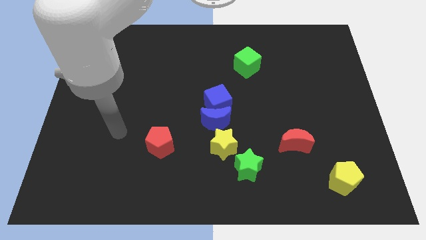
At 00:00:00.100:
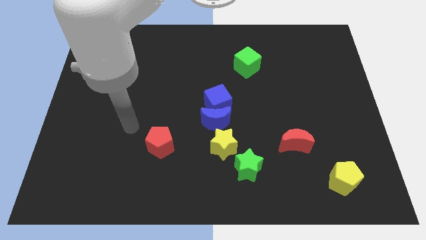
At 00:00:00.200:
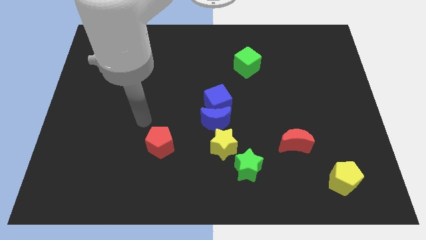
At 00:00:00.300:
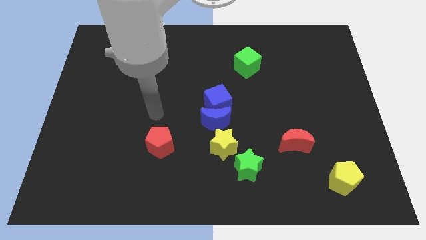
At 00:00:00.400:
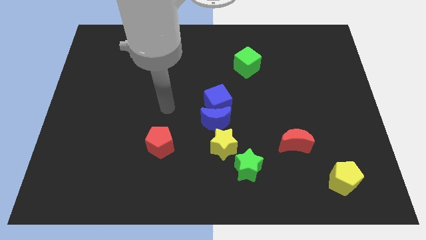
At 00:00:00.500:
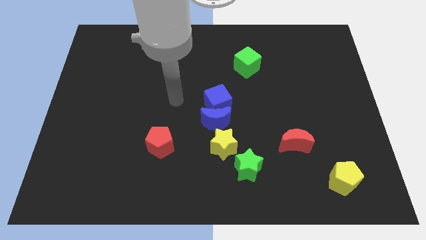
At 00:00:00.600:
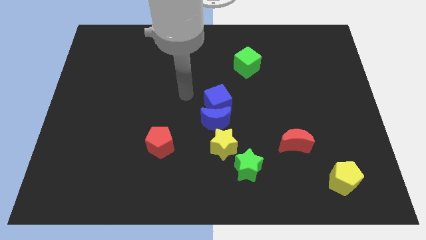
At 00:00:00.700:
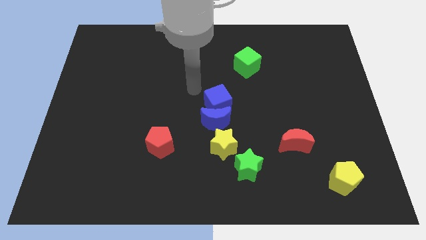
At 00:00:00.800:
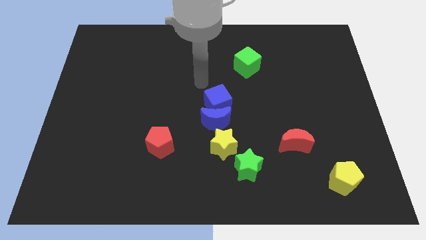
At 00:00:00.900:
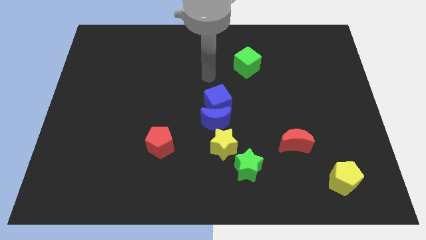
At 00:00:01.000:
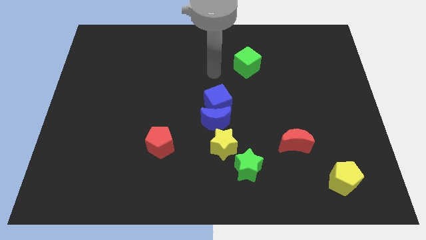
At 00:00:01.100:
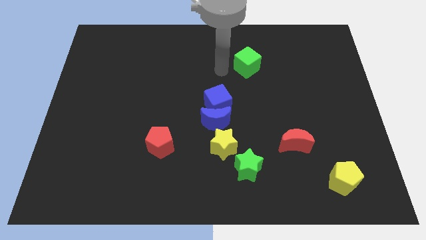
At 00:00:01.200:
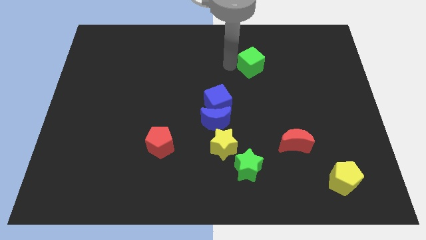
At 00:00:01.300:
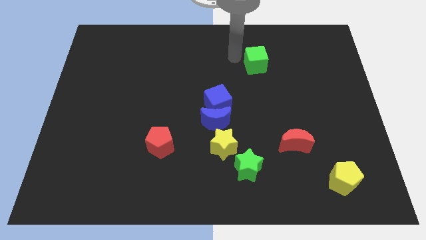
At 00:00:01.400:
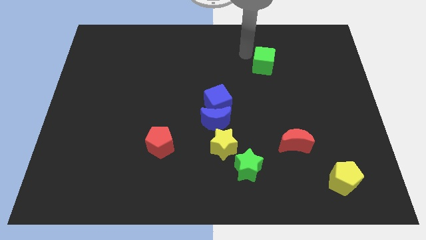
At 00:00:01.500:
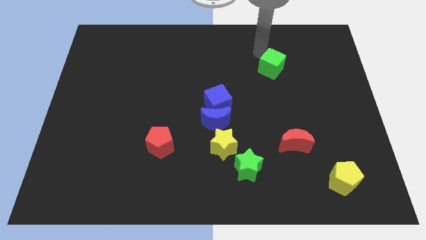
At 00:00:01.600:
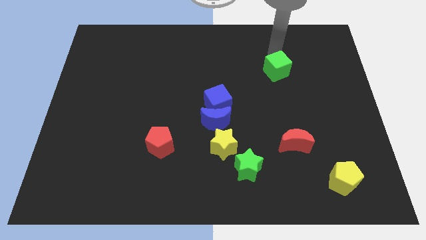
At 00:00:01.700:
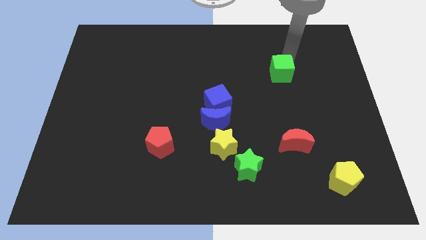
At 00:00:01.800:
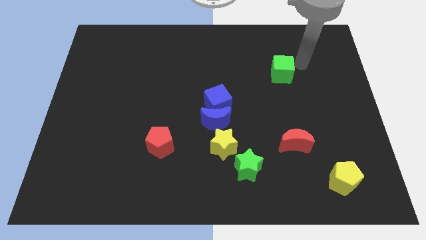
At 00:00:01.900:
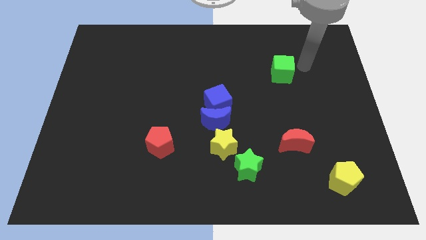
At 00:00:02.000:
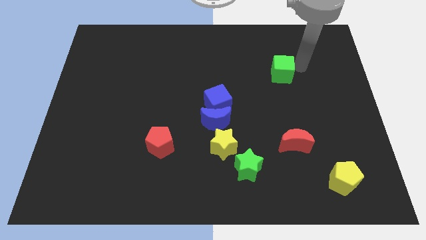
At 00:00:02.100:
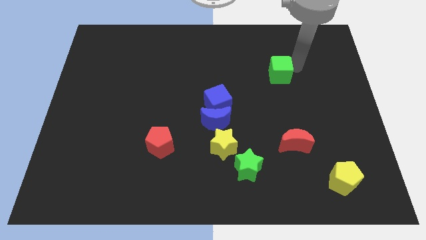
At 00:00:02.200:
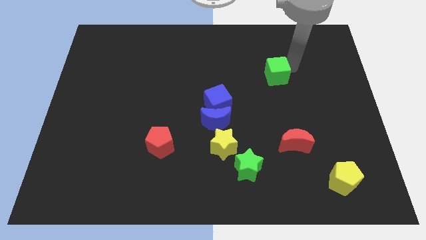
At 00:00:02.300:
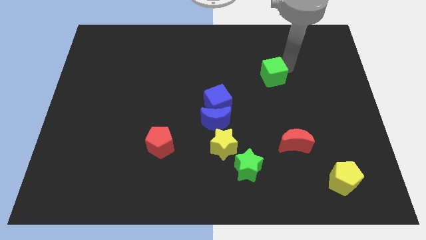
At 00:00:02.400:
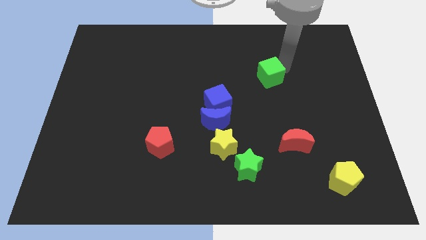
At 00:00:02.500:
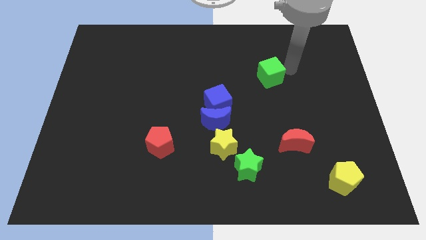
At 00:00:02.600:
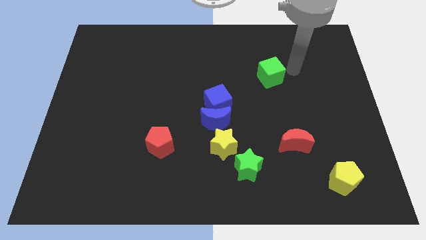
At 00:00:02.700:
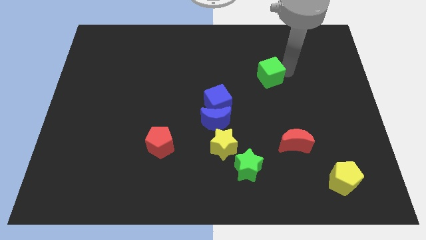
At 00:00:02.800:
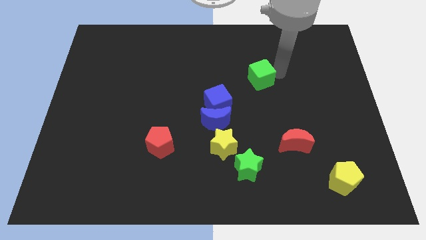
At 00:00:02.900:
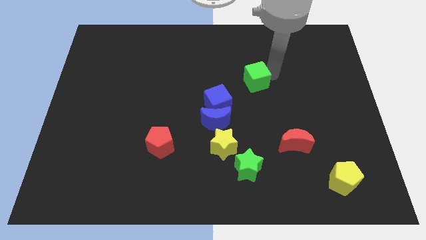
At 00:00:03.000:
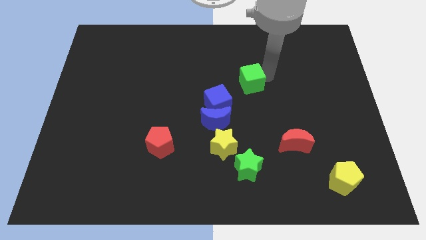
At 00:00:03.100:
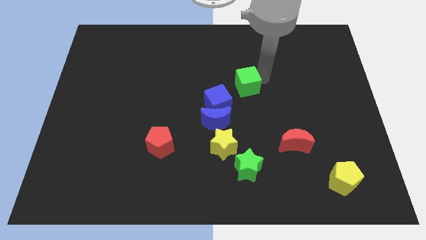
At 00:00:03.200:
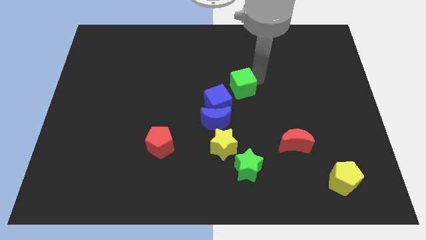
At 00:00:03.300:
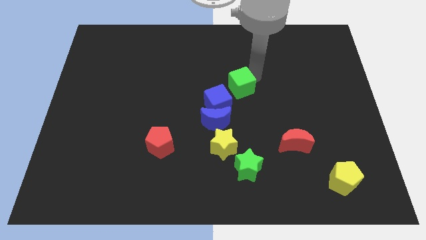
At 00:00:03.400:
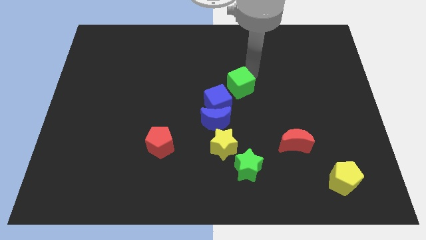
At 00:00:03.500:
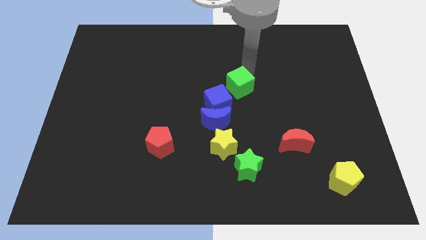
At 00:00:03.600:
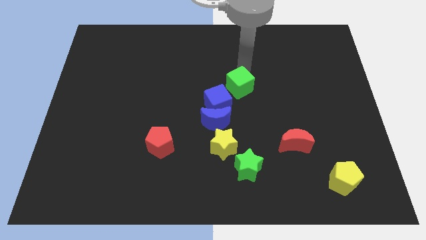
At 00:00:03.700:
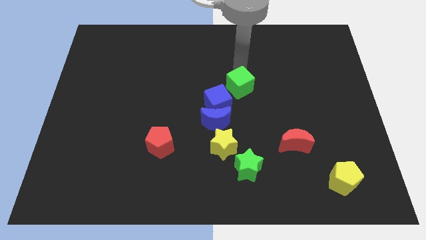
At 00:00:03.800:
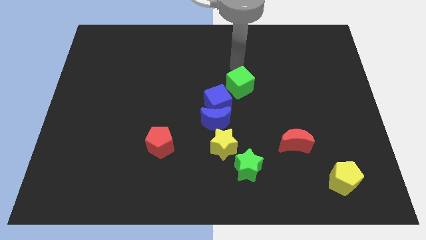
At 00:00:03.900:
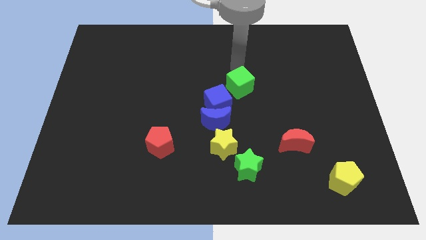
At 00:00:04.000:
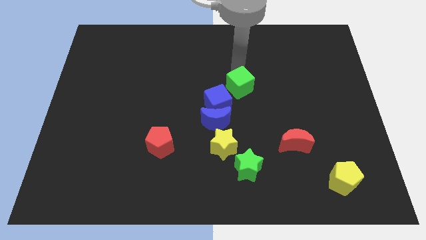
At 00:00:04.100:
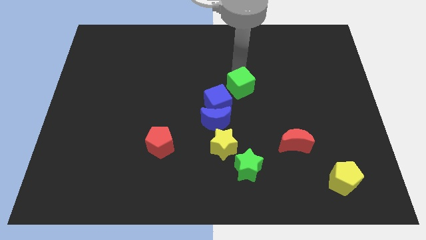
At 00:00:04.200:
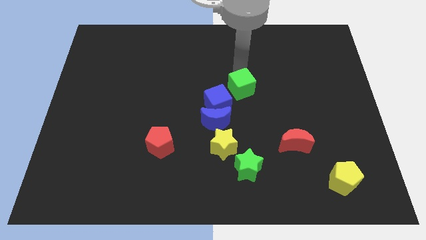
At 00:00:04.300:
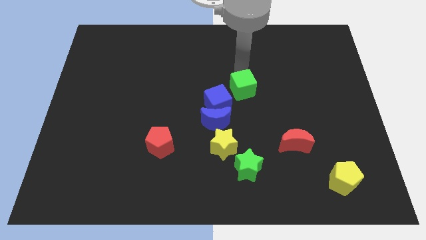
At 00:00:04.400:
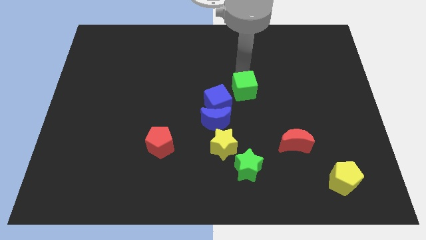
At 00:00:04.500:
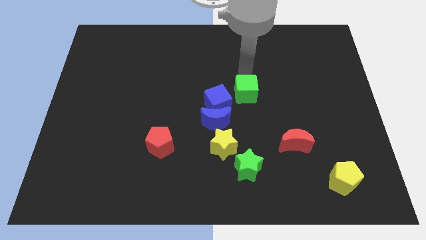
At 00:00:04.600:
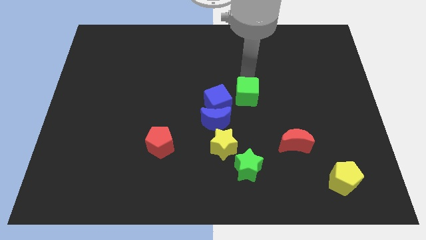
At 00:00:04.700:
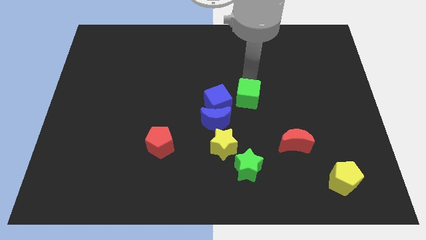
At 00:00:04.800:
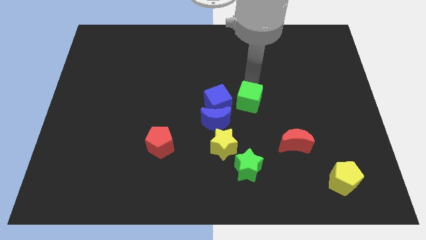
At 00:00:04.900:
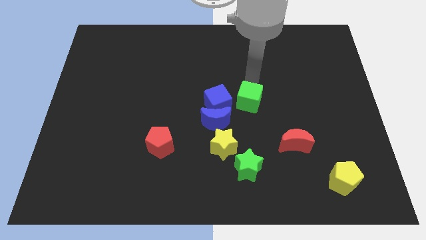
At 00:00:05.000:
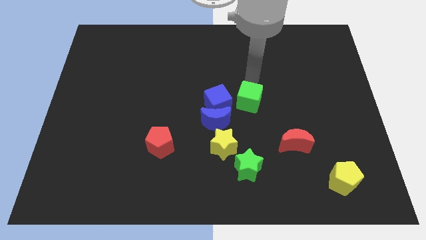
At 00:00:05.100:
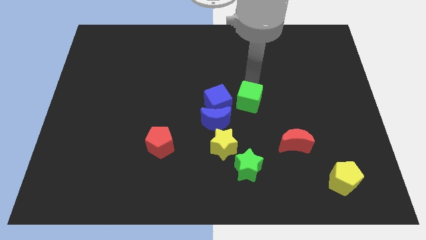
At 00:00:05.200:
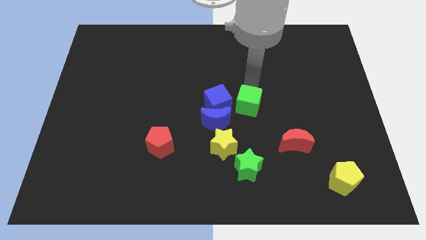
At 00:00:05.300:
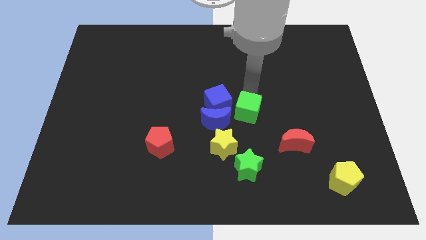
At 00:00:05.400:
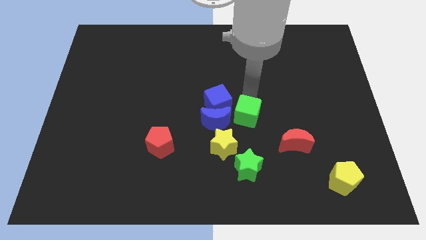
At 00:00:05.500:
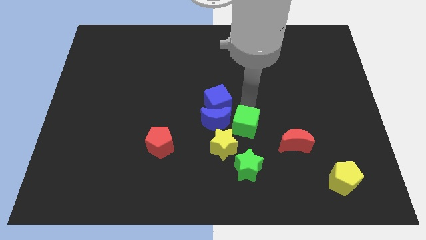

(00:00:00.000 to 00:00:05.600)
push the green cube to the left of the red moon

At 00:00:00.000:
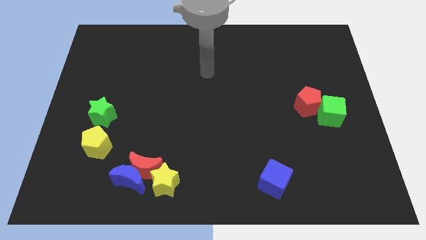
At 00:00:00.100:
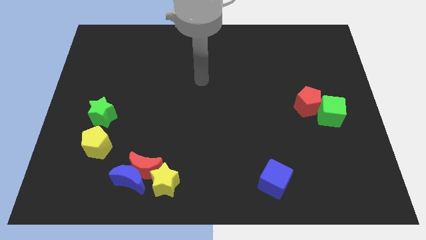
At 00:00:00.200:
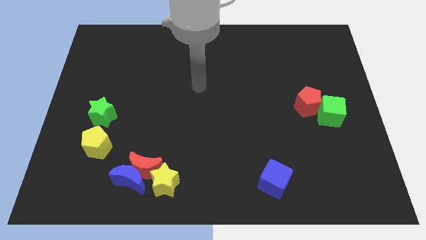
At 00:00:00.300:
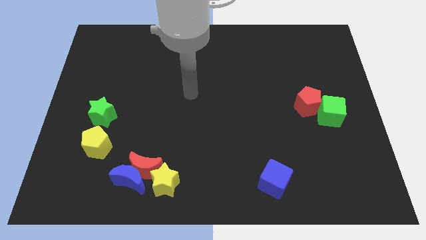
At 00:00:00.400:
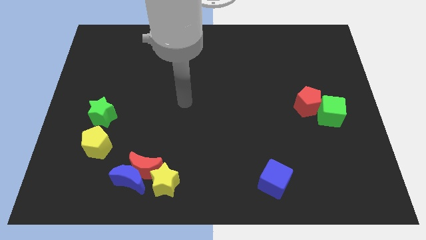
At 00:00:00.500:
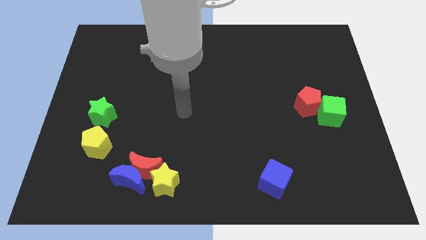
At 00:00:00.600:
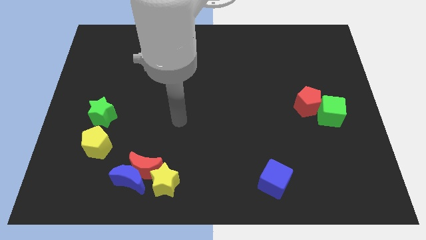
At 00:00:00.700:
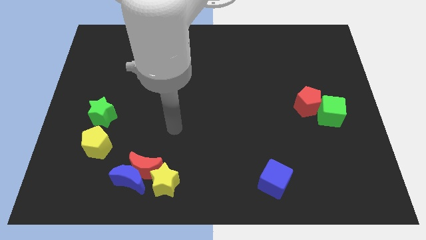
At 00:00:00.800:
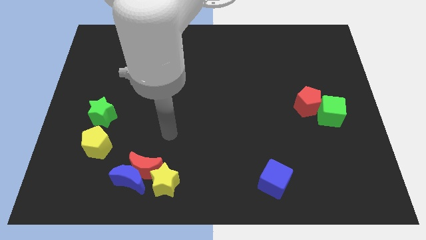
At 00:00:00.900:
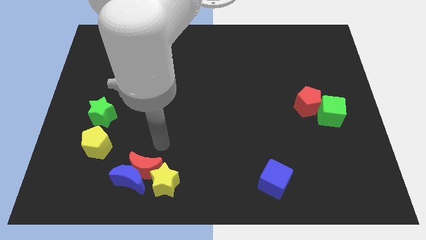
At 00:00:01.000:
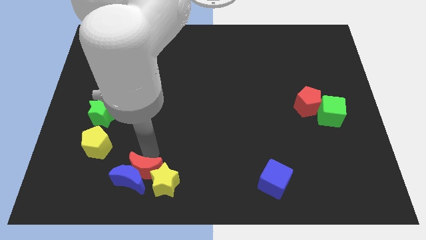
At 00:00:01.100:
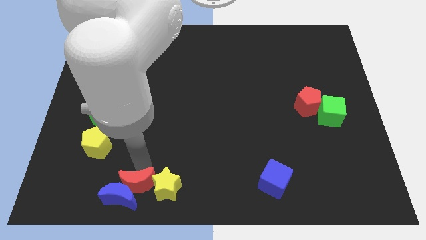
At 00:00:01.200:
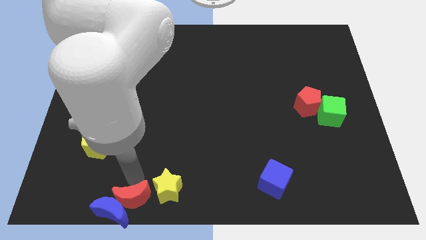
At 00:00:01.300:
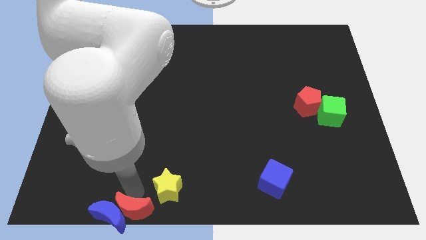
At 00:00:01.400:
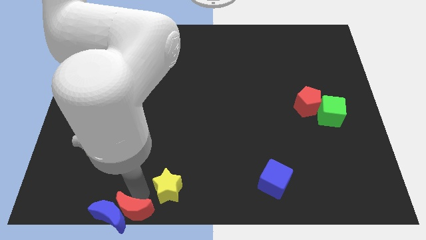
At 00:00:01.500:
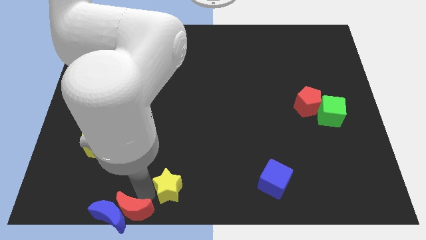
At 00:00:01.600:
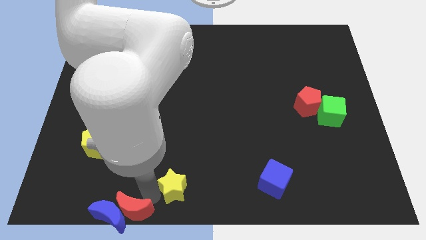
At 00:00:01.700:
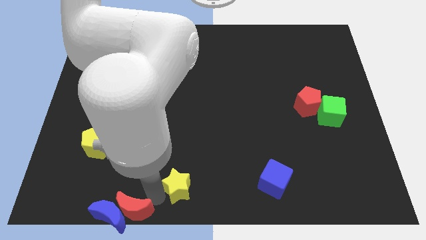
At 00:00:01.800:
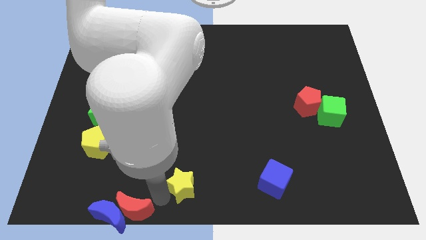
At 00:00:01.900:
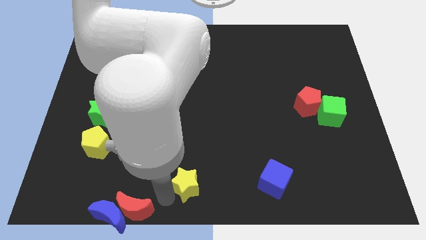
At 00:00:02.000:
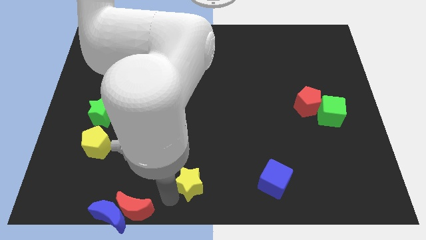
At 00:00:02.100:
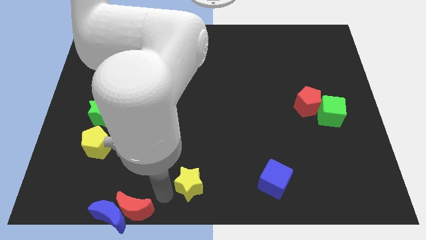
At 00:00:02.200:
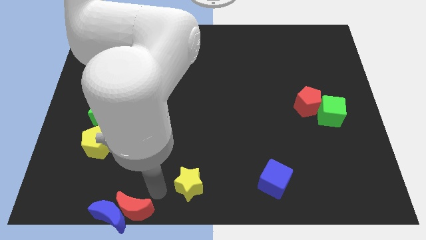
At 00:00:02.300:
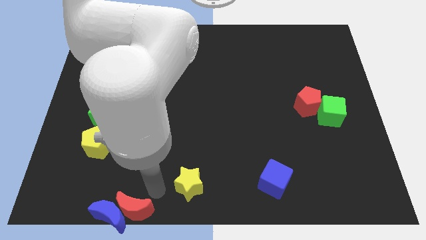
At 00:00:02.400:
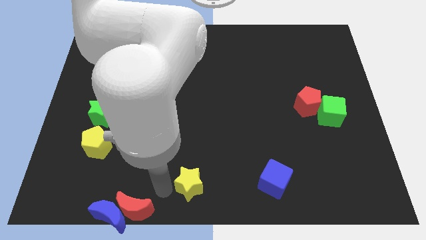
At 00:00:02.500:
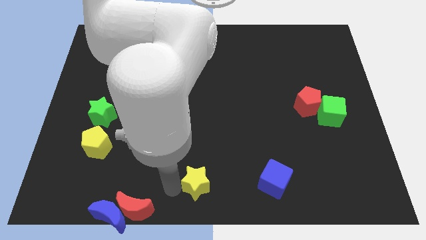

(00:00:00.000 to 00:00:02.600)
slide the yellow star just left of the blue cube
